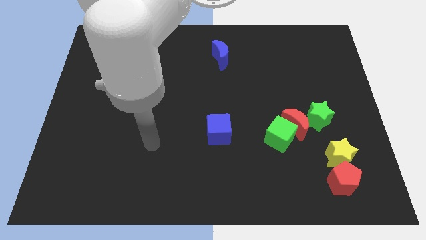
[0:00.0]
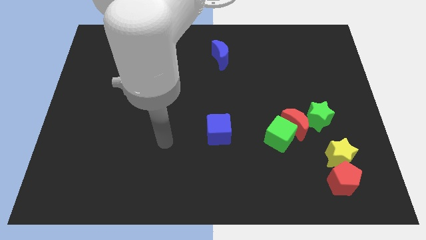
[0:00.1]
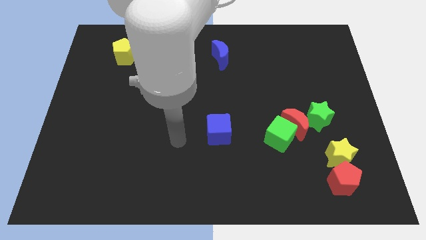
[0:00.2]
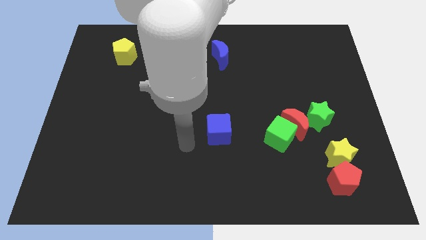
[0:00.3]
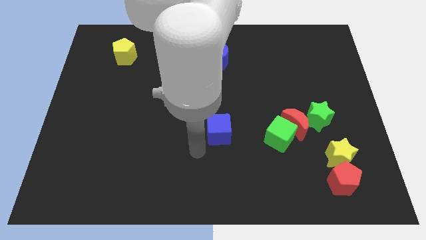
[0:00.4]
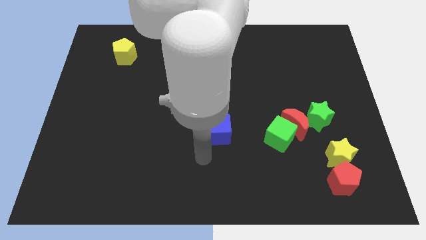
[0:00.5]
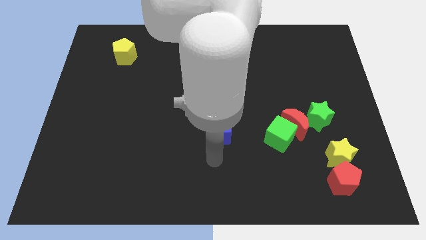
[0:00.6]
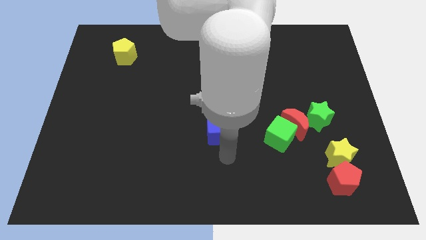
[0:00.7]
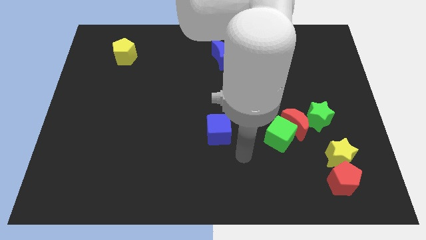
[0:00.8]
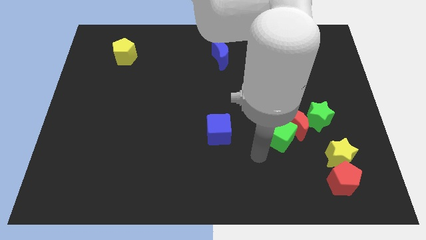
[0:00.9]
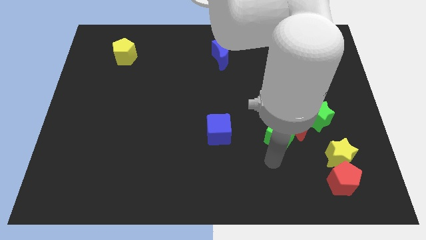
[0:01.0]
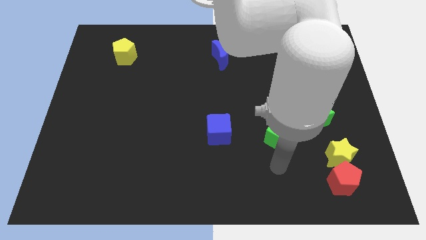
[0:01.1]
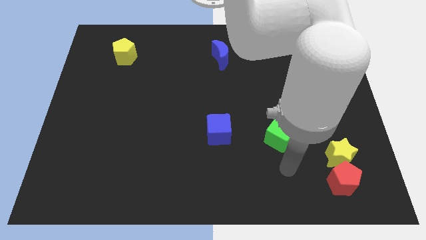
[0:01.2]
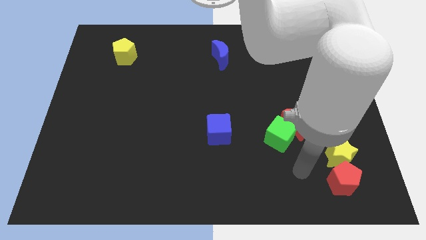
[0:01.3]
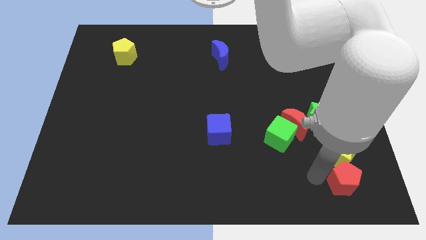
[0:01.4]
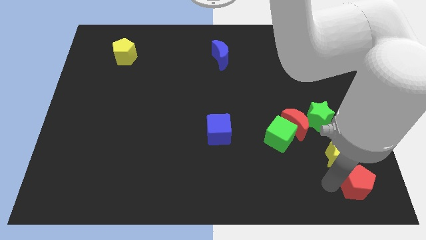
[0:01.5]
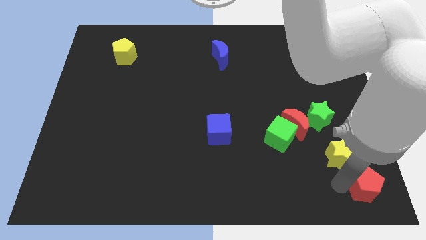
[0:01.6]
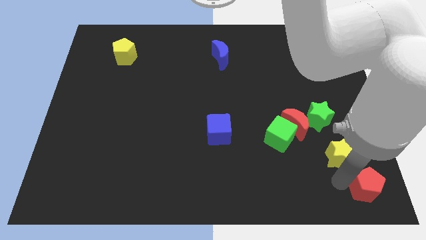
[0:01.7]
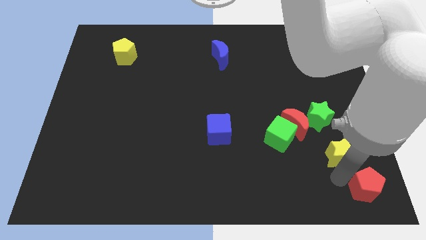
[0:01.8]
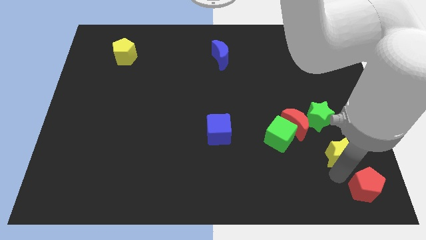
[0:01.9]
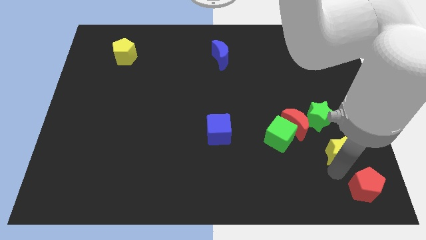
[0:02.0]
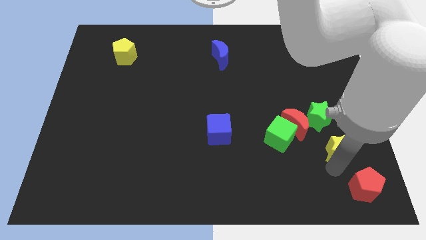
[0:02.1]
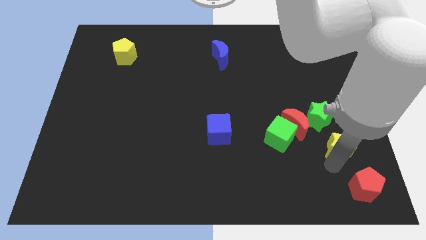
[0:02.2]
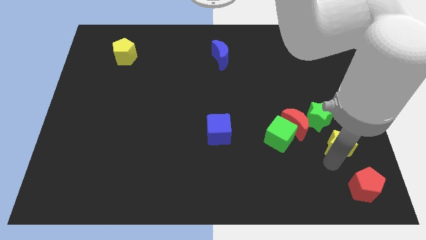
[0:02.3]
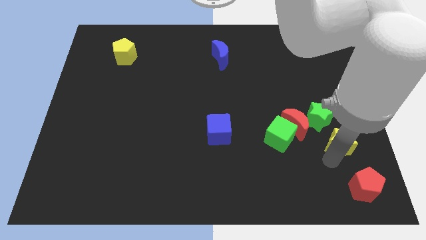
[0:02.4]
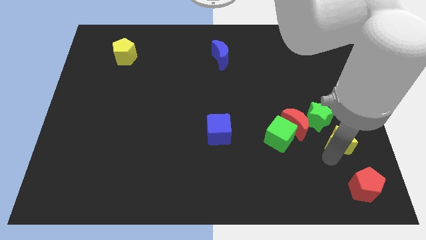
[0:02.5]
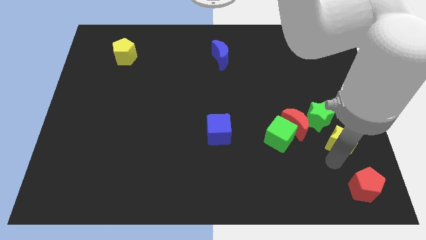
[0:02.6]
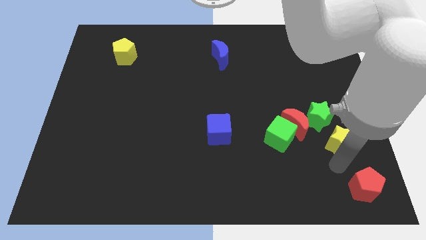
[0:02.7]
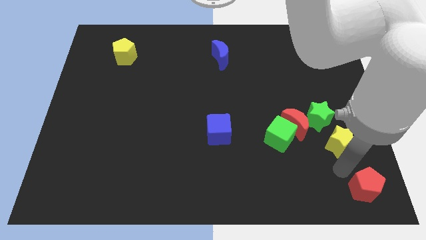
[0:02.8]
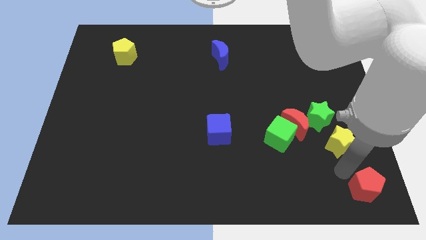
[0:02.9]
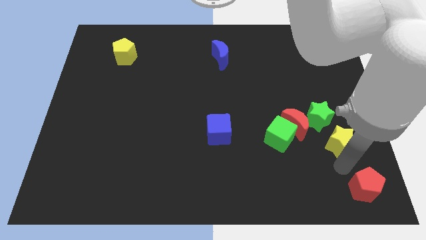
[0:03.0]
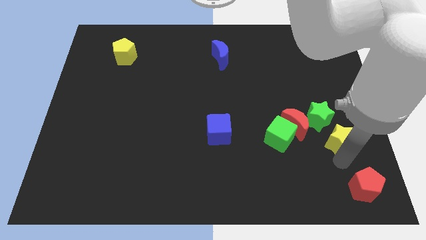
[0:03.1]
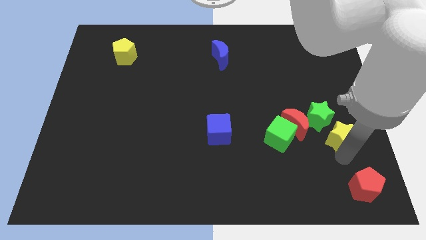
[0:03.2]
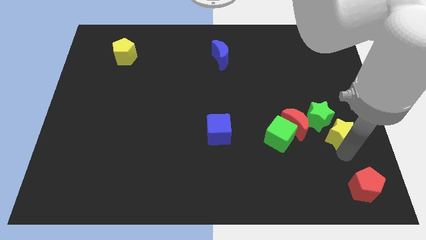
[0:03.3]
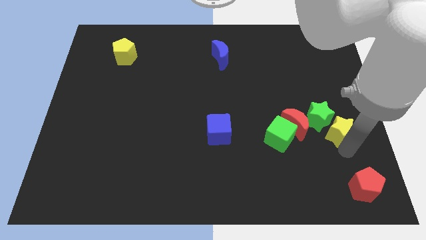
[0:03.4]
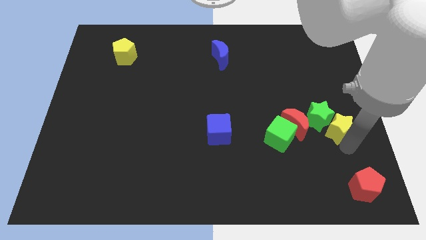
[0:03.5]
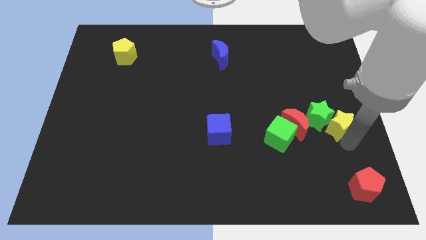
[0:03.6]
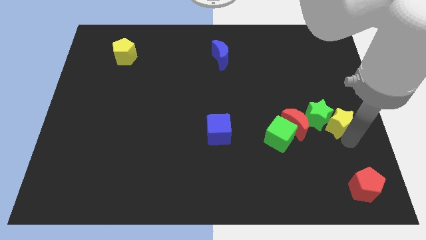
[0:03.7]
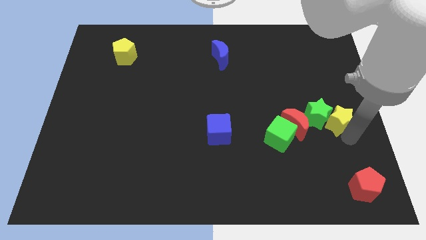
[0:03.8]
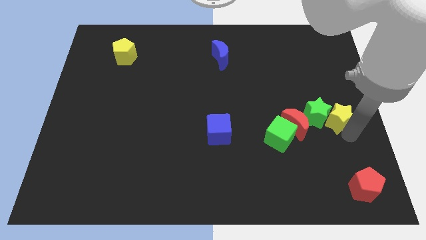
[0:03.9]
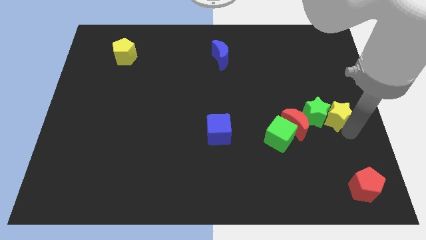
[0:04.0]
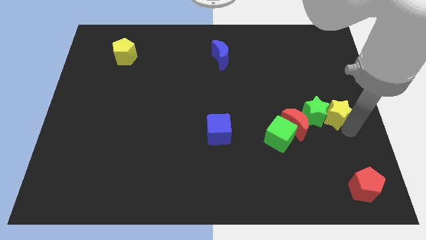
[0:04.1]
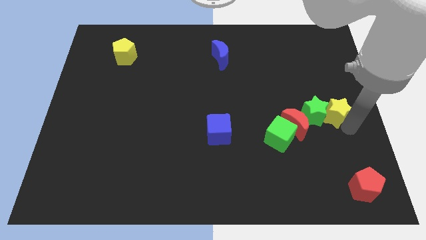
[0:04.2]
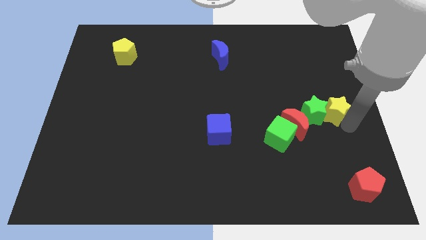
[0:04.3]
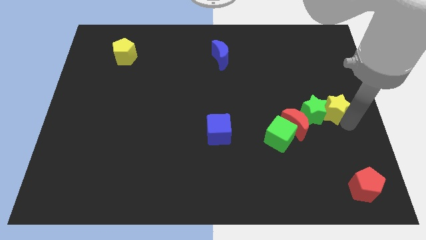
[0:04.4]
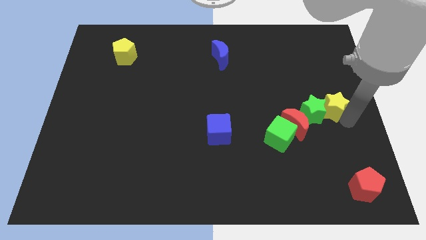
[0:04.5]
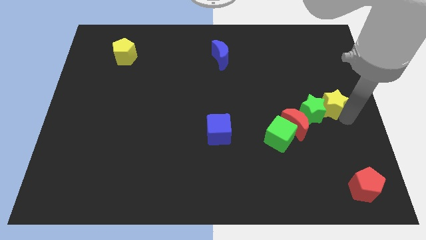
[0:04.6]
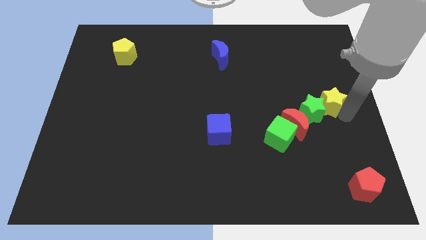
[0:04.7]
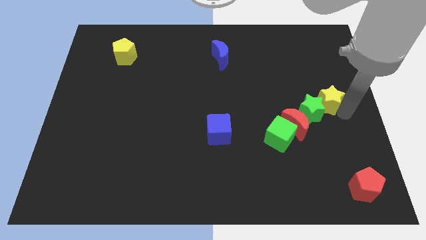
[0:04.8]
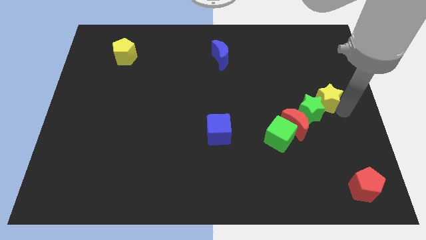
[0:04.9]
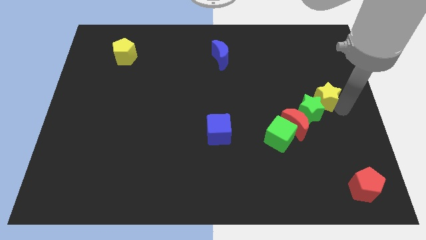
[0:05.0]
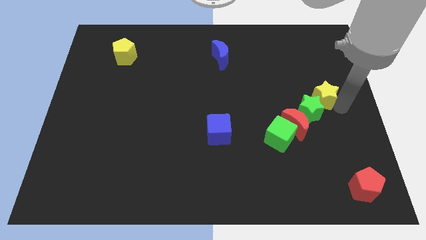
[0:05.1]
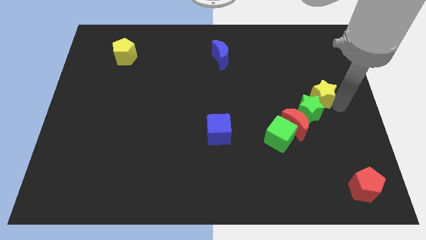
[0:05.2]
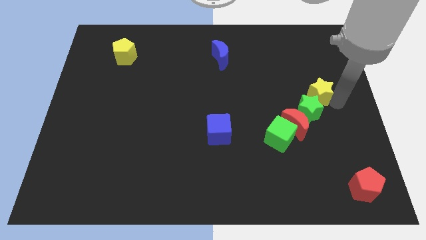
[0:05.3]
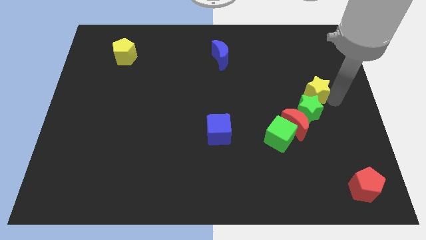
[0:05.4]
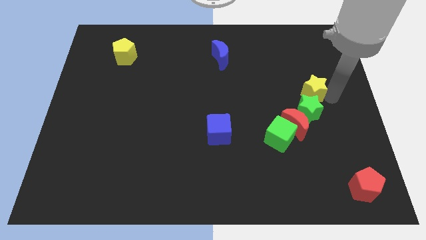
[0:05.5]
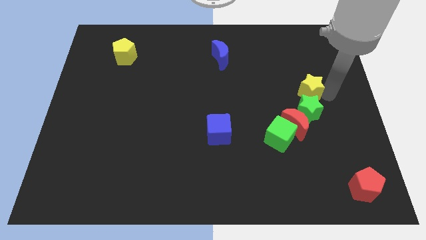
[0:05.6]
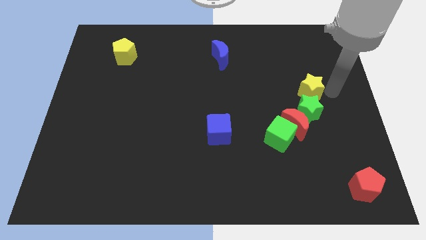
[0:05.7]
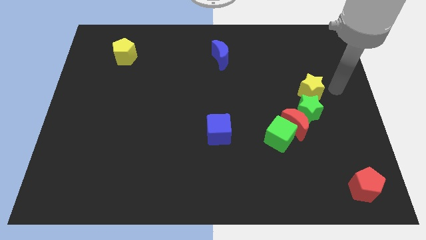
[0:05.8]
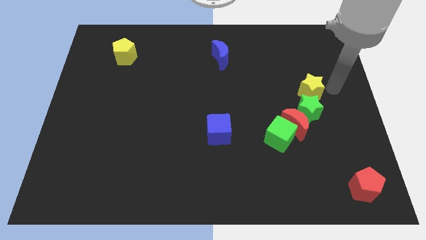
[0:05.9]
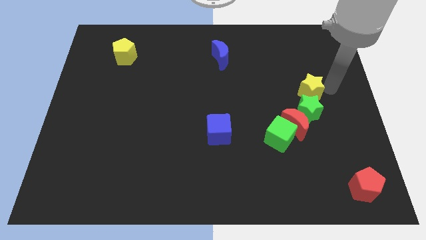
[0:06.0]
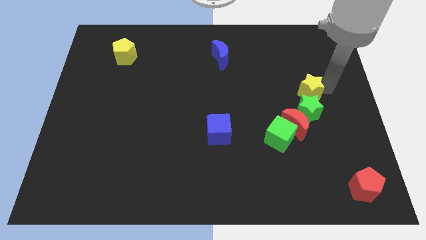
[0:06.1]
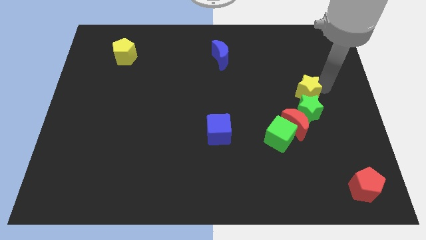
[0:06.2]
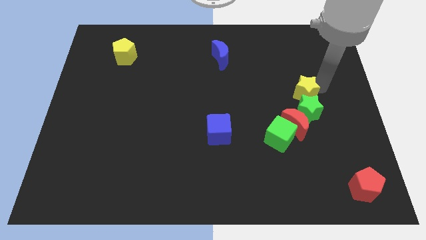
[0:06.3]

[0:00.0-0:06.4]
put the yellow star to the top left of the green star

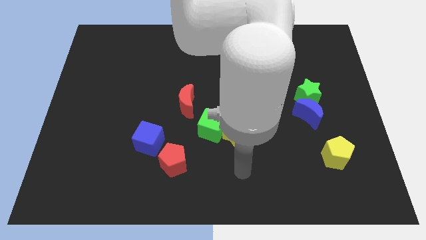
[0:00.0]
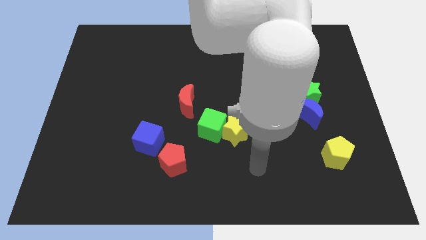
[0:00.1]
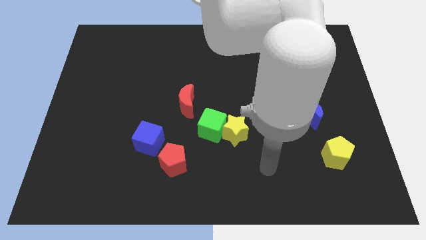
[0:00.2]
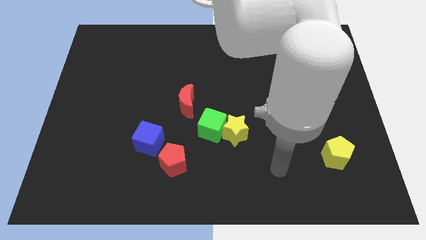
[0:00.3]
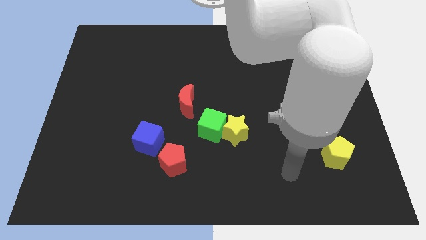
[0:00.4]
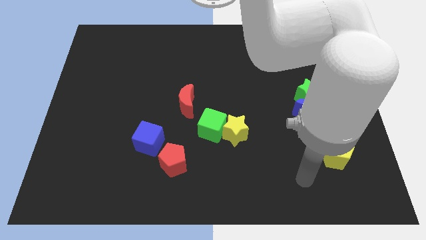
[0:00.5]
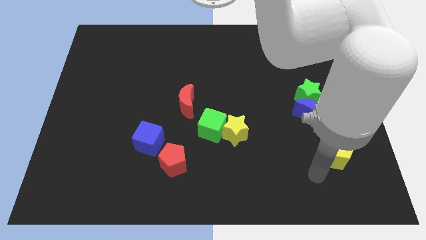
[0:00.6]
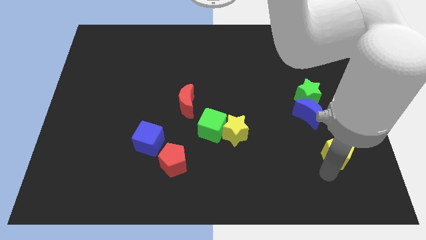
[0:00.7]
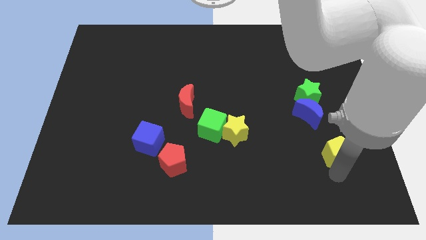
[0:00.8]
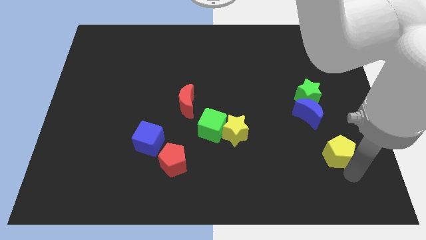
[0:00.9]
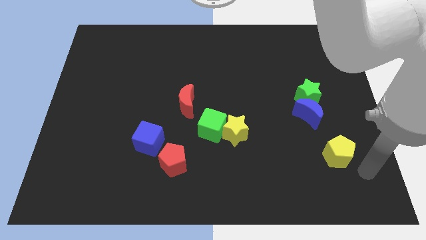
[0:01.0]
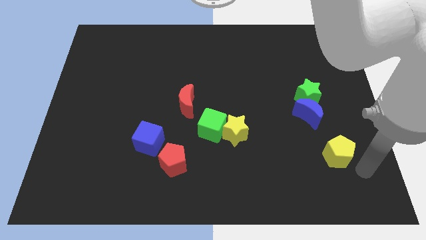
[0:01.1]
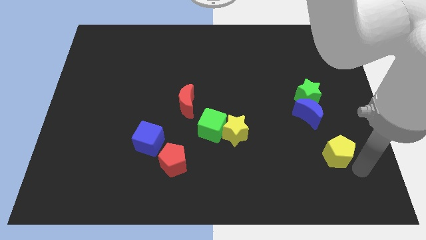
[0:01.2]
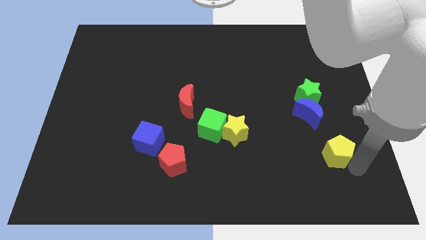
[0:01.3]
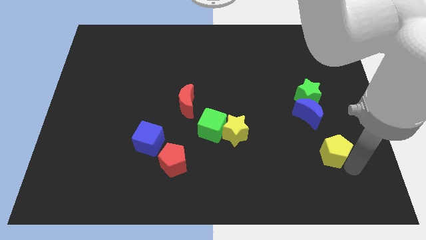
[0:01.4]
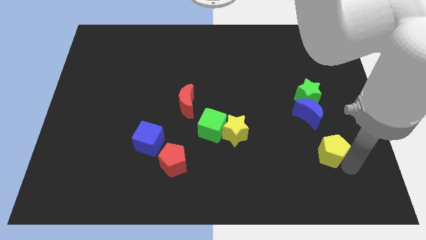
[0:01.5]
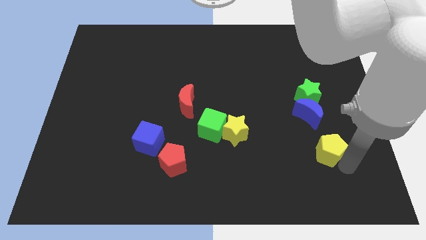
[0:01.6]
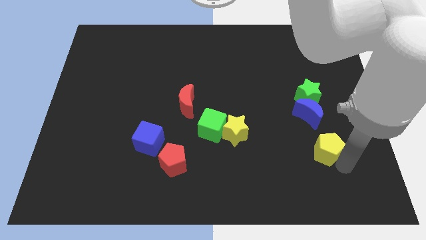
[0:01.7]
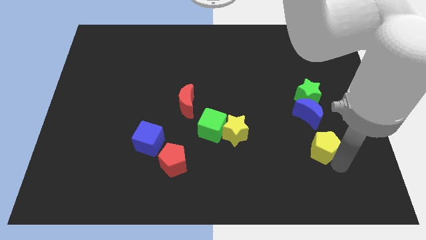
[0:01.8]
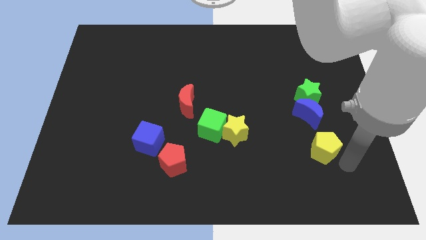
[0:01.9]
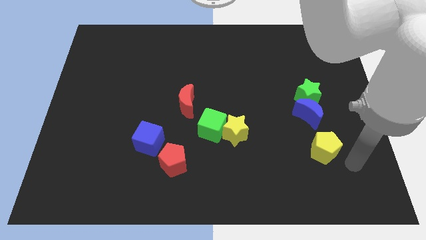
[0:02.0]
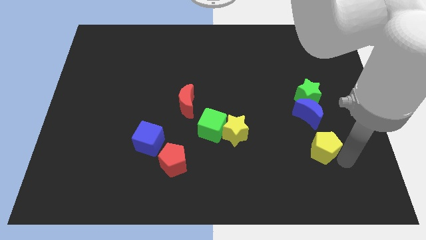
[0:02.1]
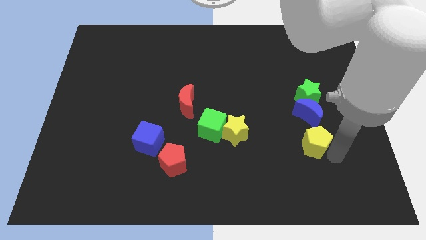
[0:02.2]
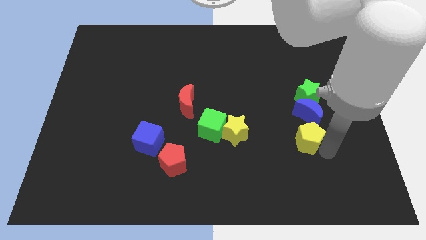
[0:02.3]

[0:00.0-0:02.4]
slide the yellow pentagon to the right of the yellow star
